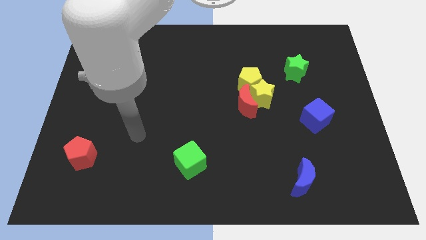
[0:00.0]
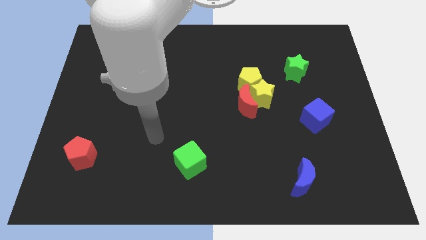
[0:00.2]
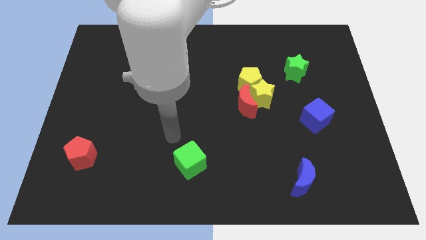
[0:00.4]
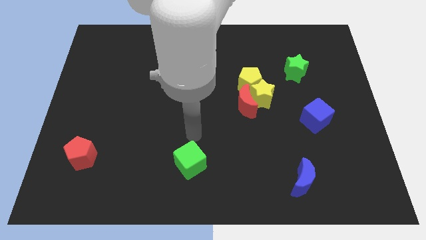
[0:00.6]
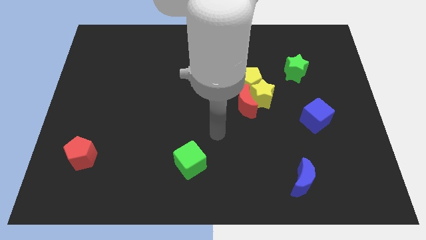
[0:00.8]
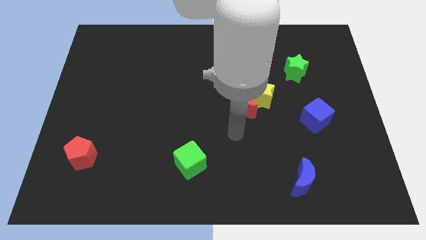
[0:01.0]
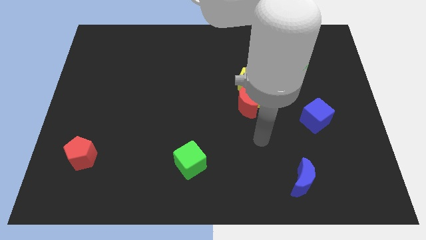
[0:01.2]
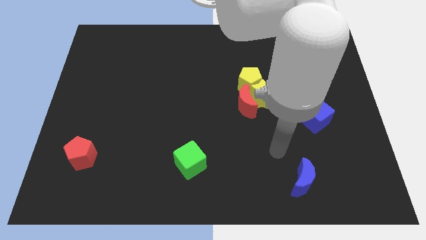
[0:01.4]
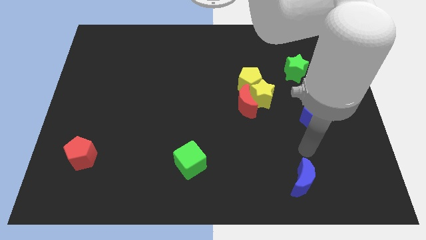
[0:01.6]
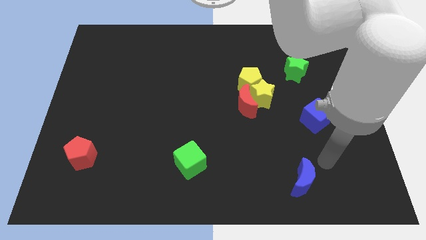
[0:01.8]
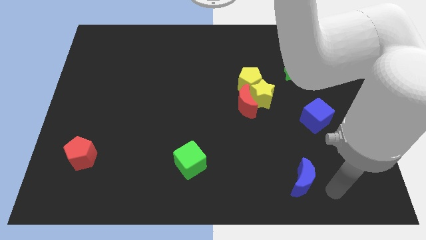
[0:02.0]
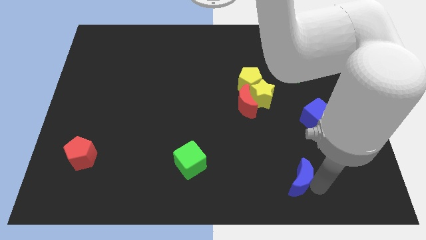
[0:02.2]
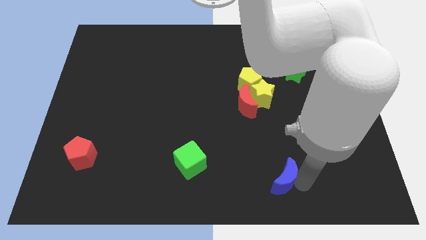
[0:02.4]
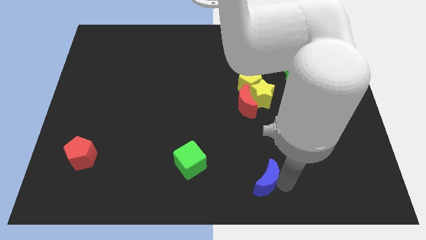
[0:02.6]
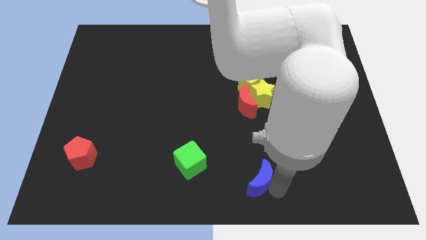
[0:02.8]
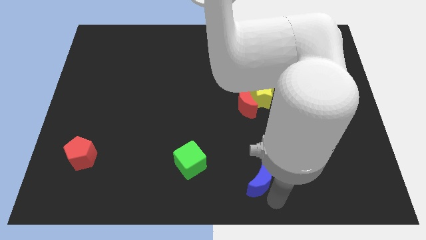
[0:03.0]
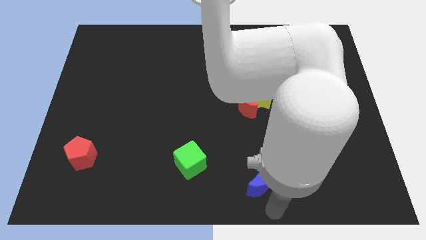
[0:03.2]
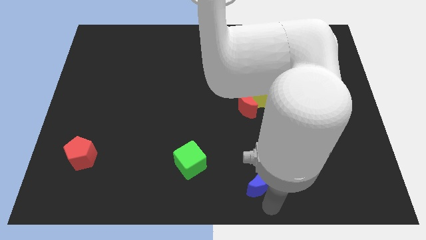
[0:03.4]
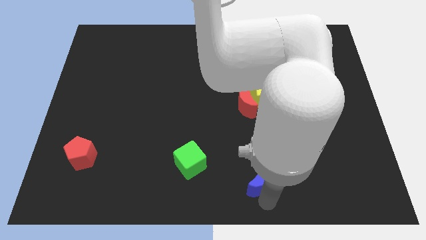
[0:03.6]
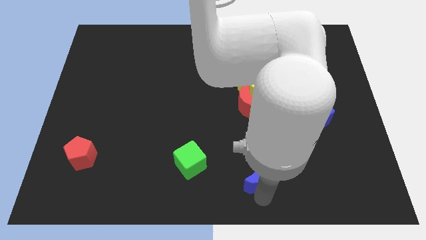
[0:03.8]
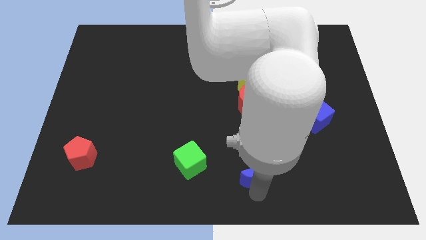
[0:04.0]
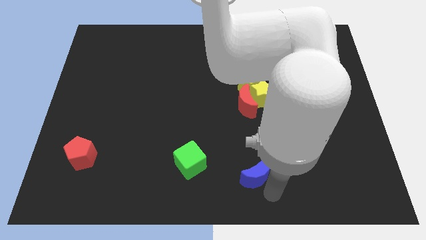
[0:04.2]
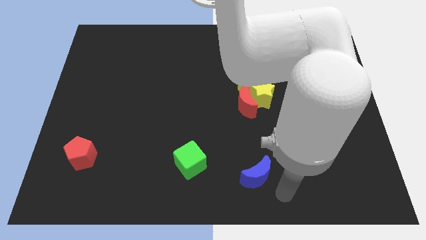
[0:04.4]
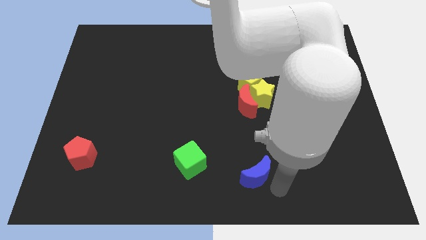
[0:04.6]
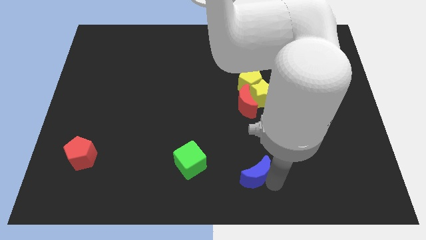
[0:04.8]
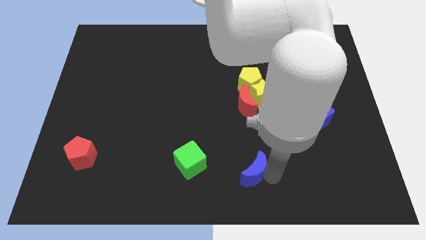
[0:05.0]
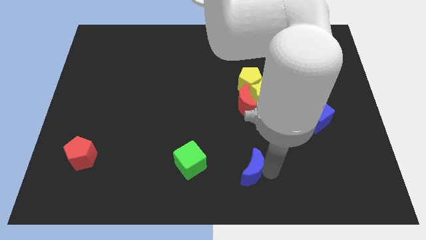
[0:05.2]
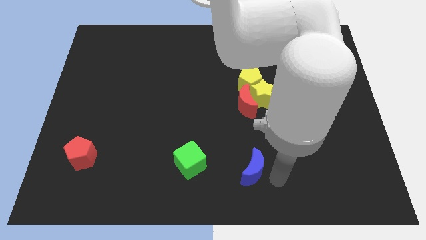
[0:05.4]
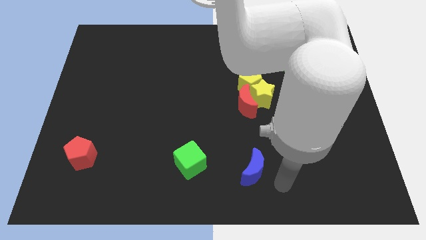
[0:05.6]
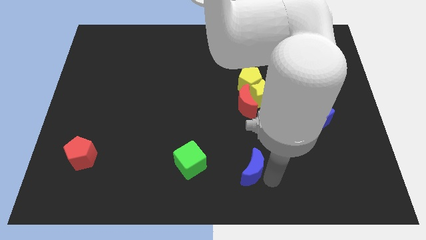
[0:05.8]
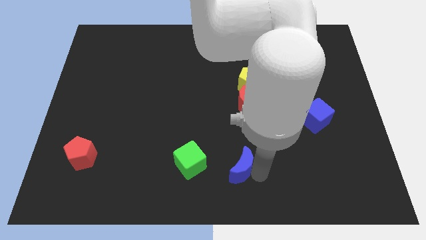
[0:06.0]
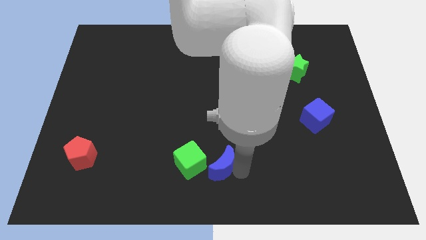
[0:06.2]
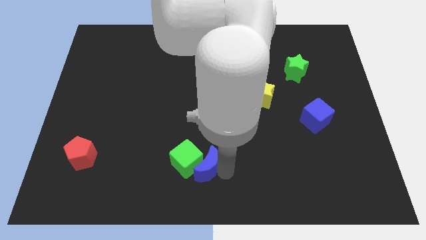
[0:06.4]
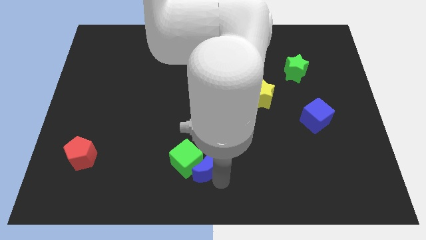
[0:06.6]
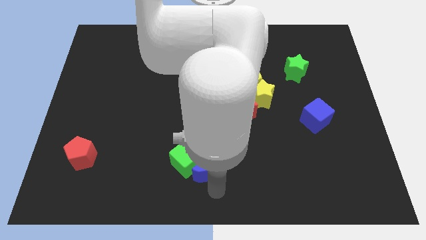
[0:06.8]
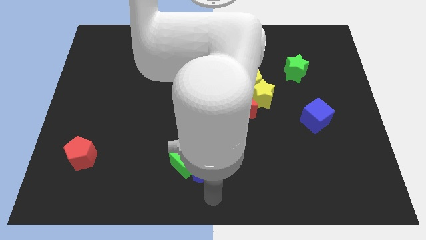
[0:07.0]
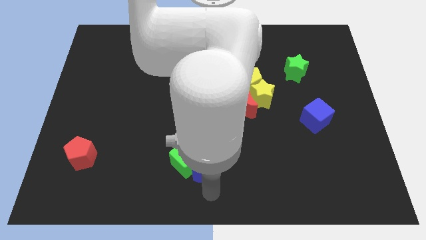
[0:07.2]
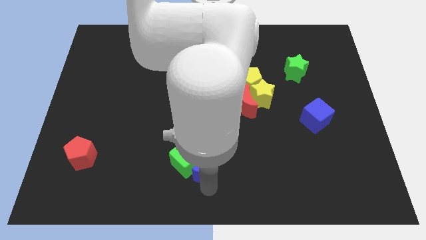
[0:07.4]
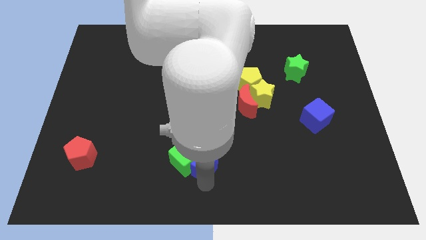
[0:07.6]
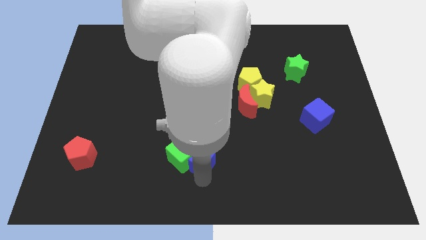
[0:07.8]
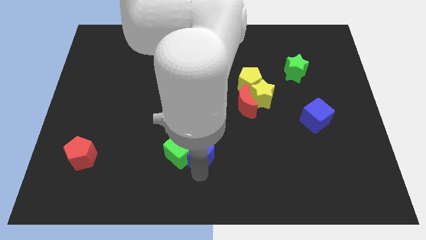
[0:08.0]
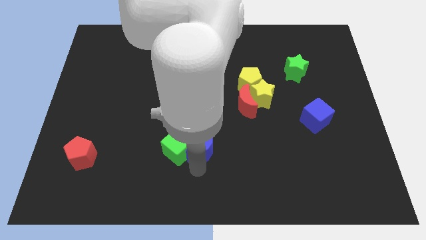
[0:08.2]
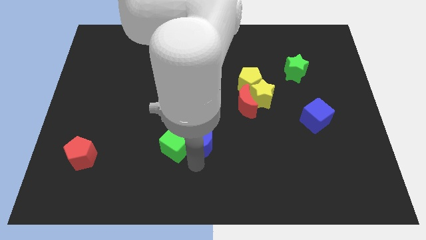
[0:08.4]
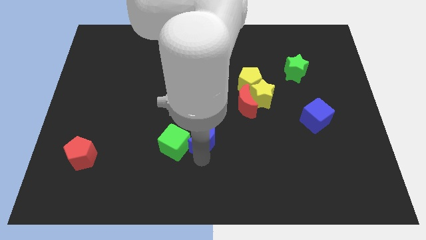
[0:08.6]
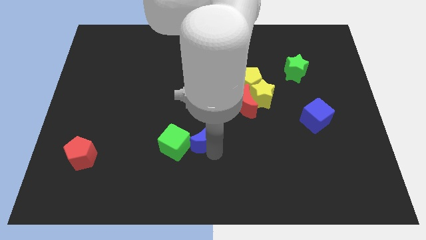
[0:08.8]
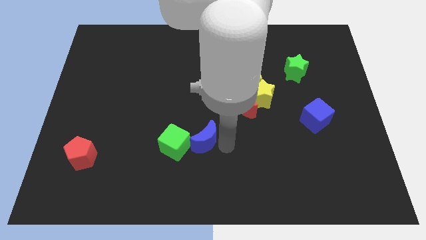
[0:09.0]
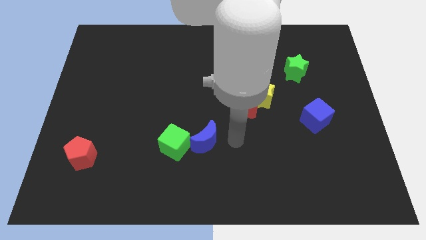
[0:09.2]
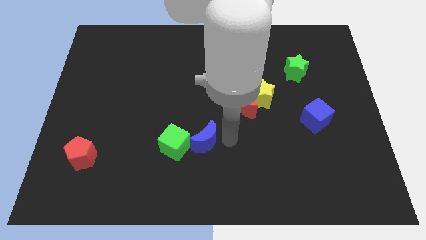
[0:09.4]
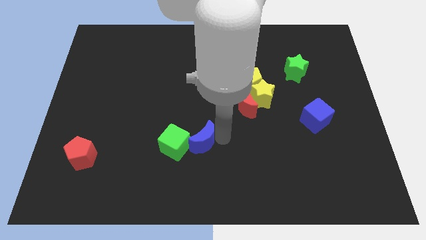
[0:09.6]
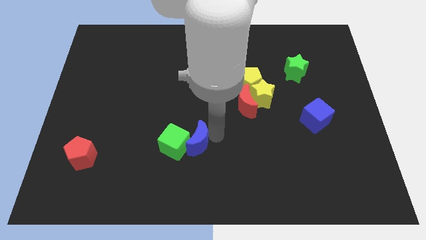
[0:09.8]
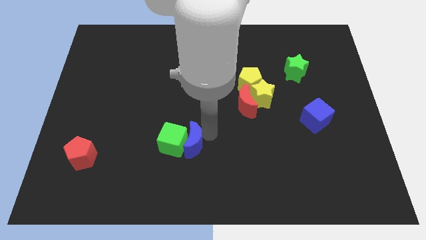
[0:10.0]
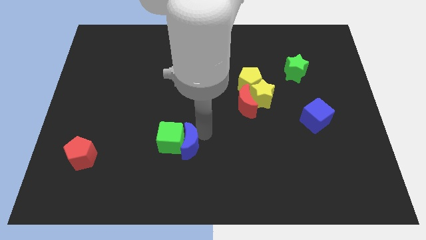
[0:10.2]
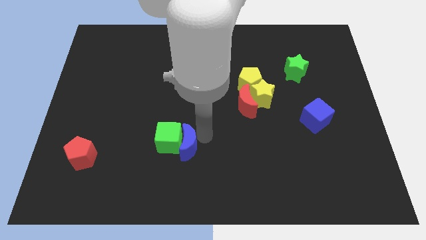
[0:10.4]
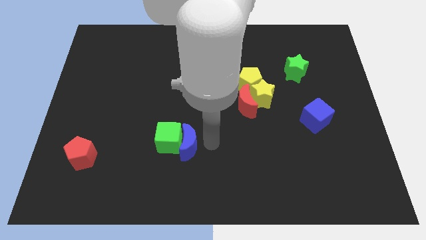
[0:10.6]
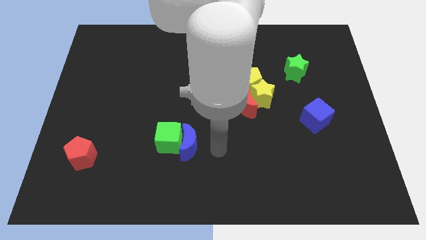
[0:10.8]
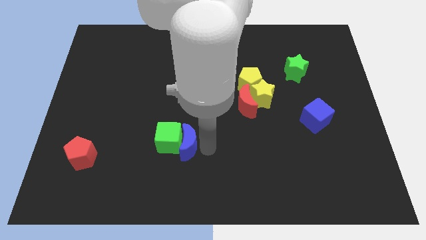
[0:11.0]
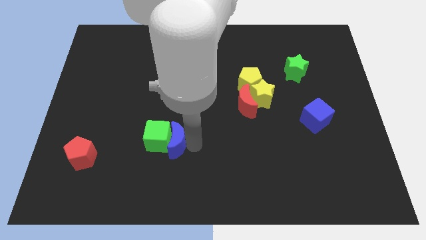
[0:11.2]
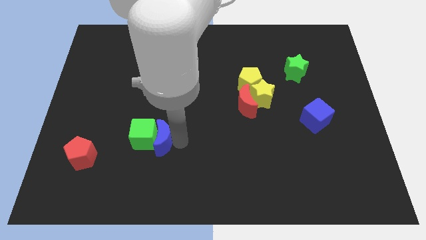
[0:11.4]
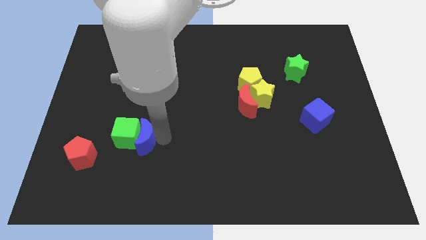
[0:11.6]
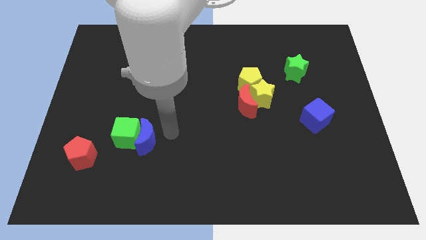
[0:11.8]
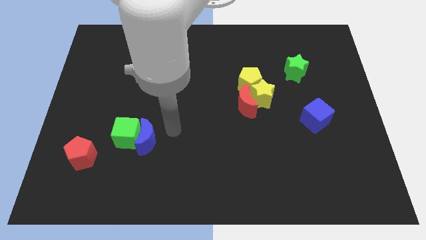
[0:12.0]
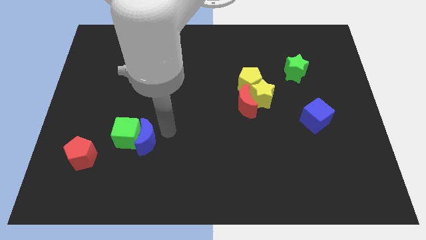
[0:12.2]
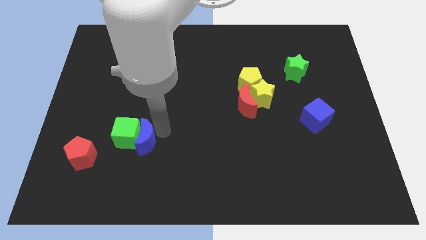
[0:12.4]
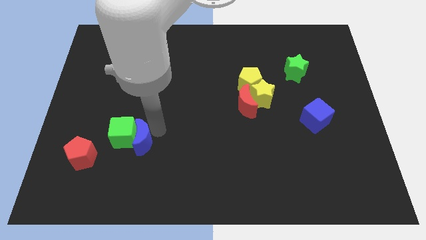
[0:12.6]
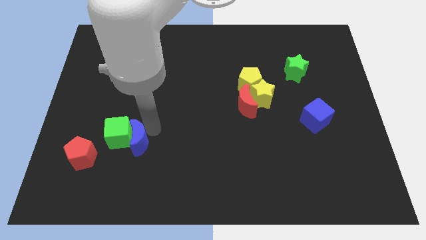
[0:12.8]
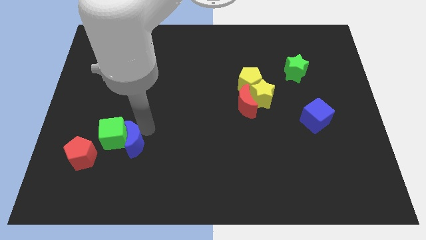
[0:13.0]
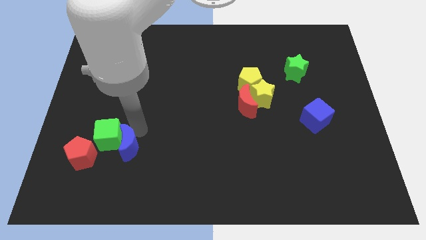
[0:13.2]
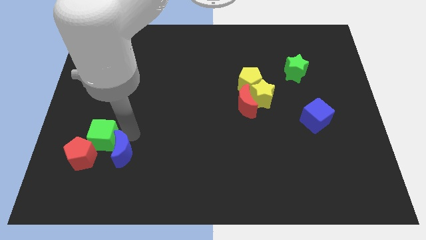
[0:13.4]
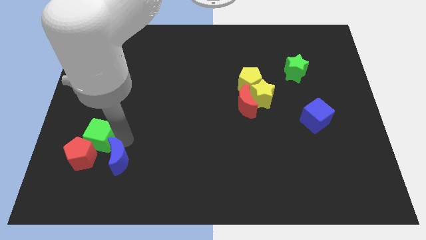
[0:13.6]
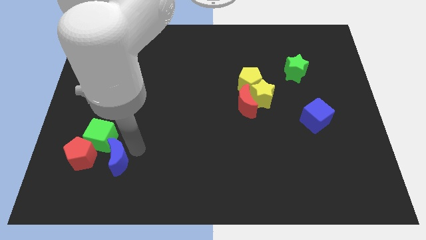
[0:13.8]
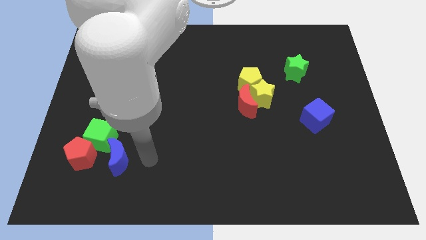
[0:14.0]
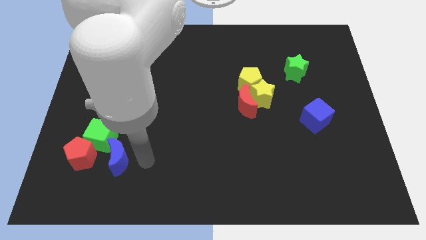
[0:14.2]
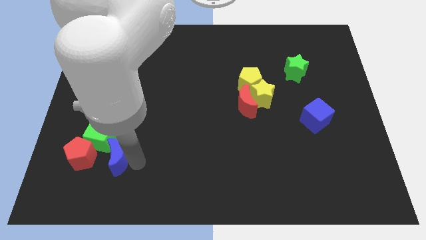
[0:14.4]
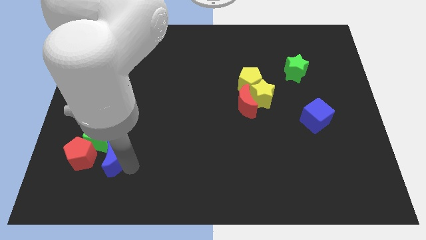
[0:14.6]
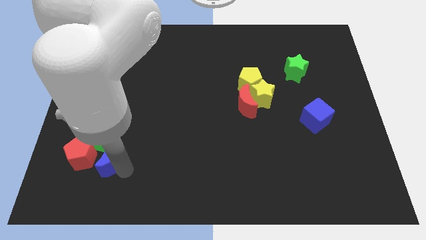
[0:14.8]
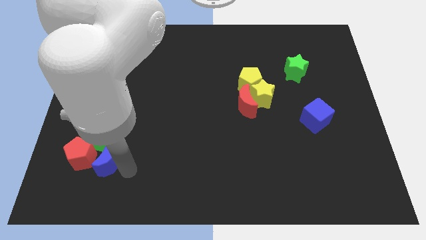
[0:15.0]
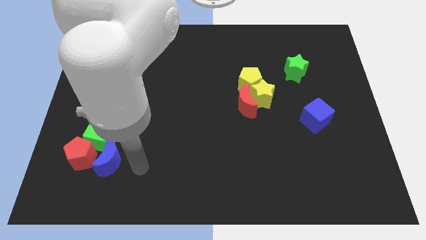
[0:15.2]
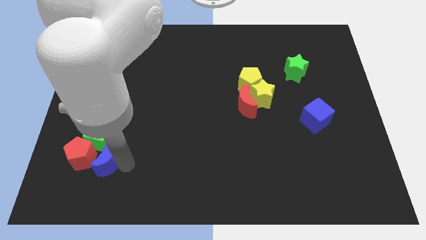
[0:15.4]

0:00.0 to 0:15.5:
move the blue moon next to the red pentagon
